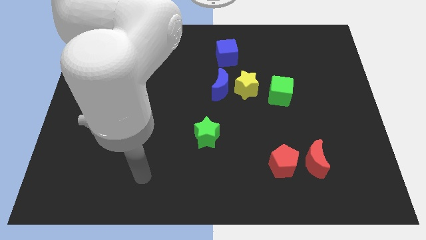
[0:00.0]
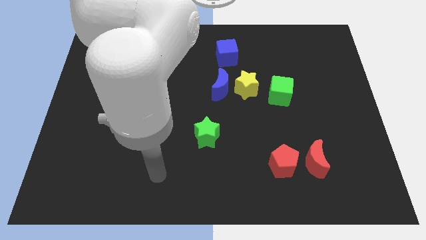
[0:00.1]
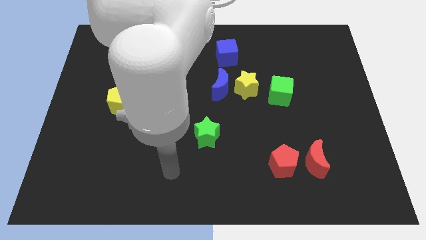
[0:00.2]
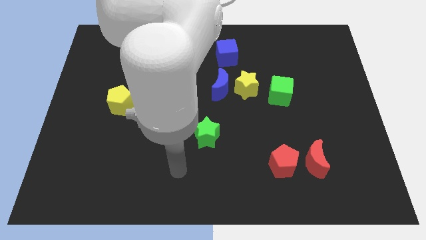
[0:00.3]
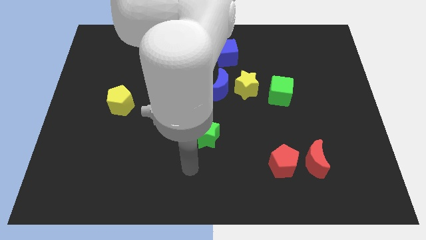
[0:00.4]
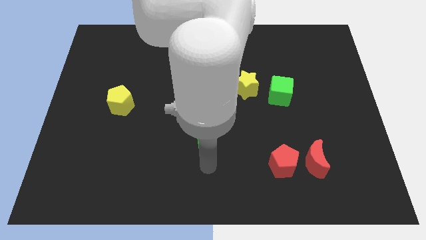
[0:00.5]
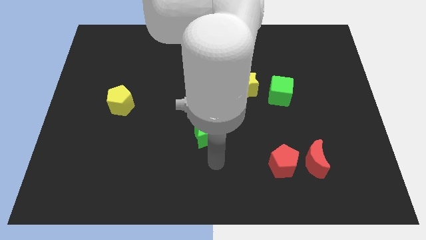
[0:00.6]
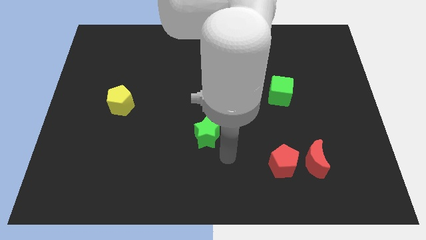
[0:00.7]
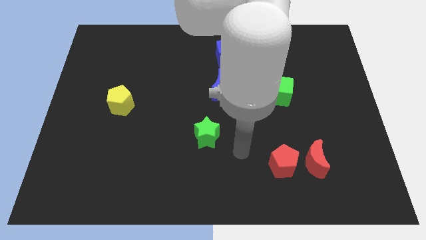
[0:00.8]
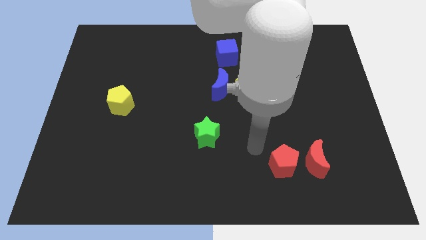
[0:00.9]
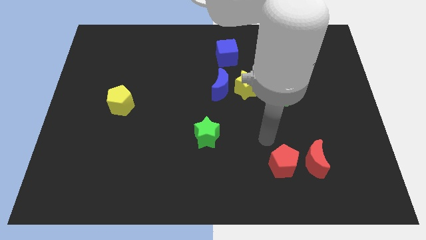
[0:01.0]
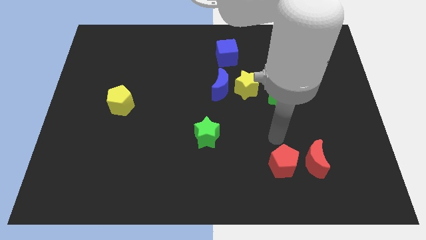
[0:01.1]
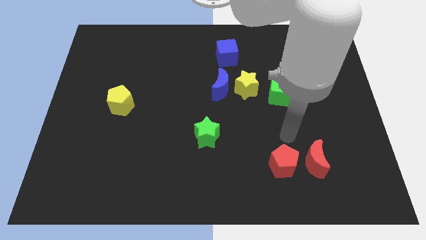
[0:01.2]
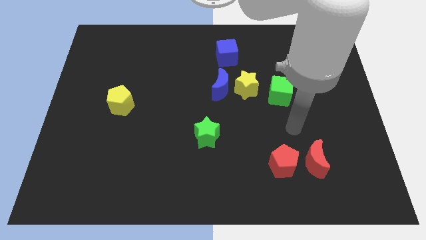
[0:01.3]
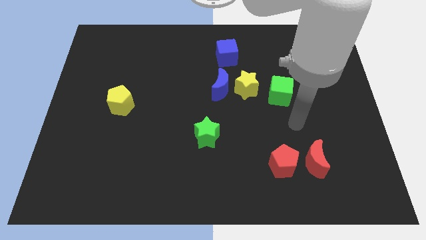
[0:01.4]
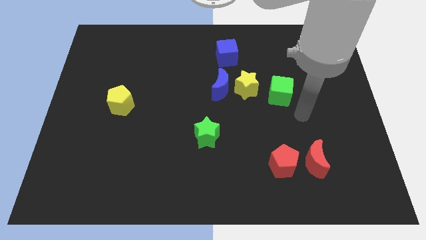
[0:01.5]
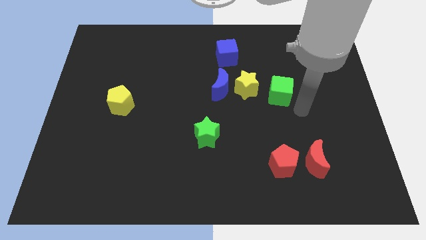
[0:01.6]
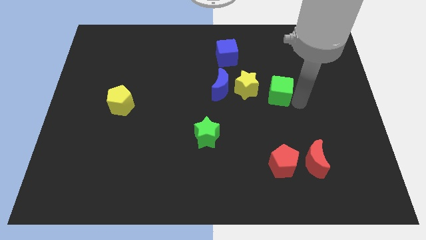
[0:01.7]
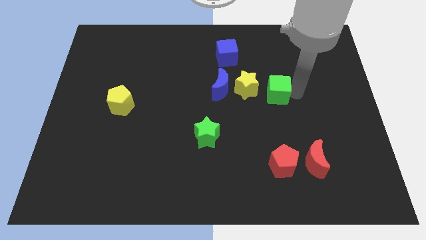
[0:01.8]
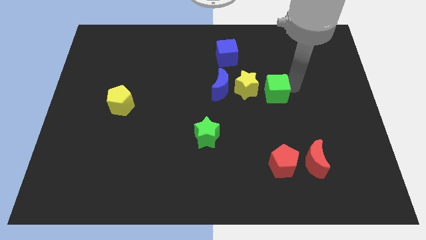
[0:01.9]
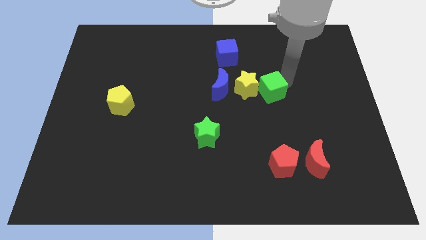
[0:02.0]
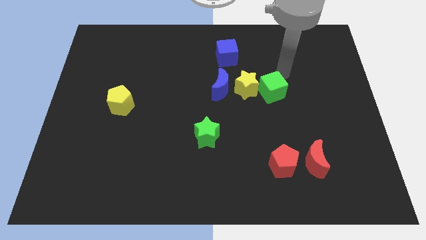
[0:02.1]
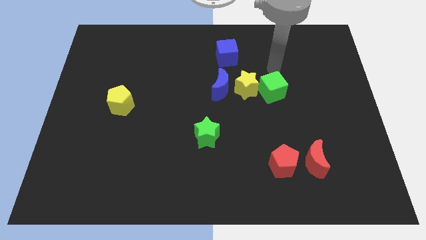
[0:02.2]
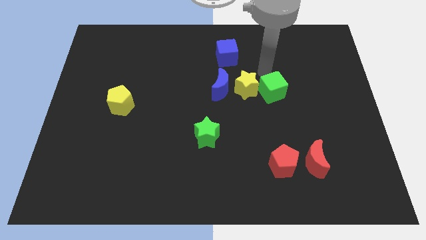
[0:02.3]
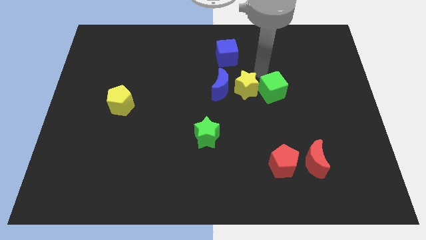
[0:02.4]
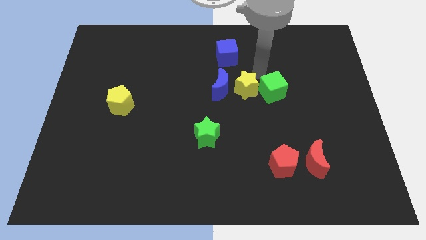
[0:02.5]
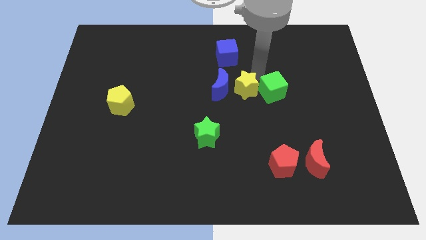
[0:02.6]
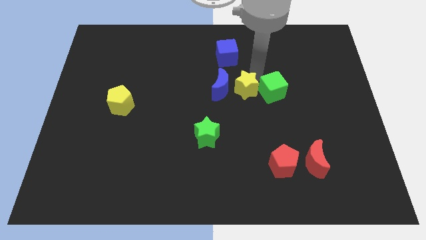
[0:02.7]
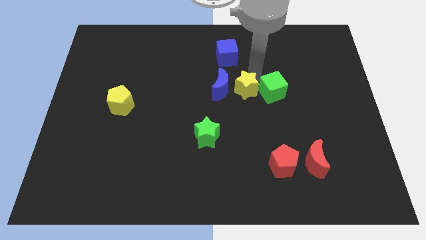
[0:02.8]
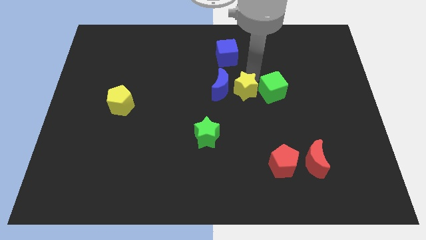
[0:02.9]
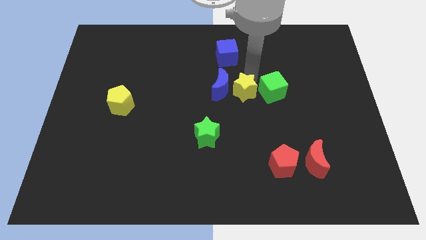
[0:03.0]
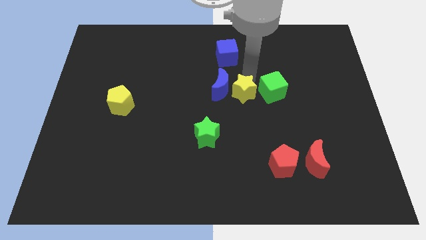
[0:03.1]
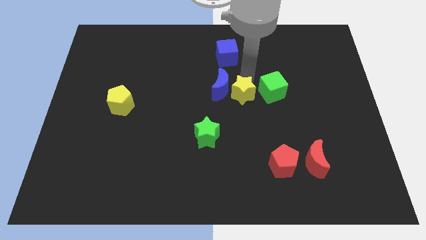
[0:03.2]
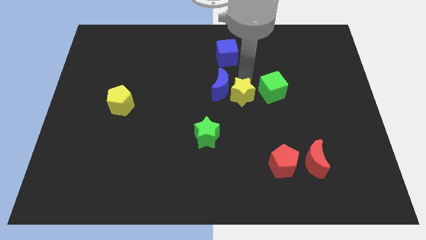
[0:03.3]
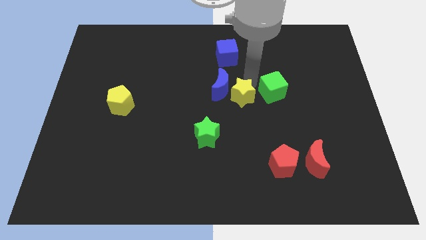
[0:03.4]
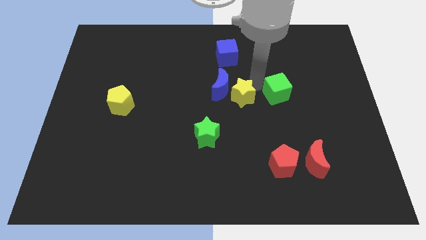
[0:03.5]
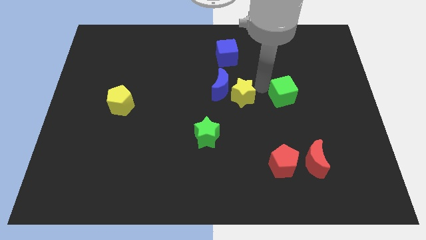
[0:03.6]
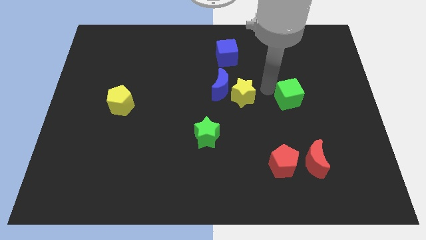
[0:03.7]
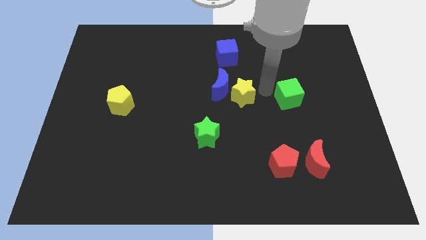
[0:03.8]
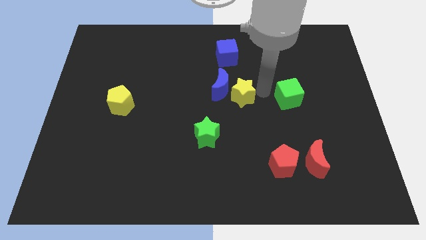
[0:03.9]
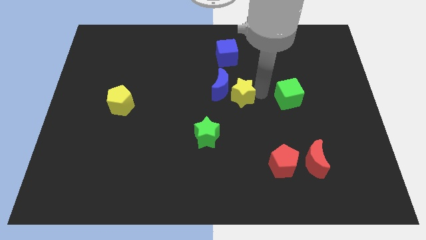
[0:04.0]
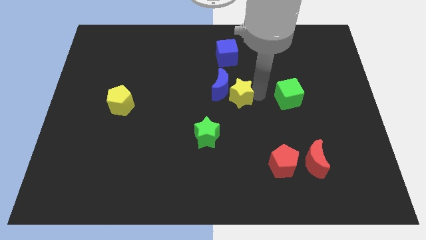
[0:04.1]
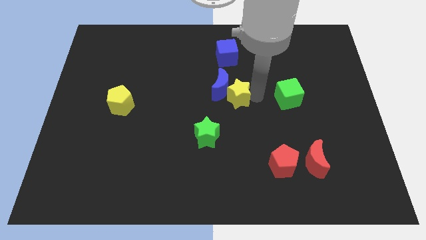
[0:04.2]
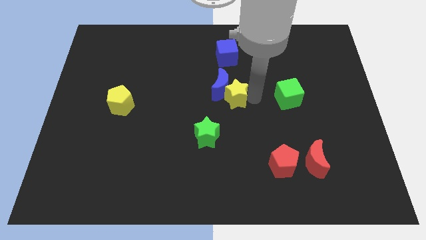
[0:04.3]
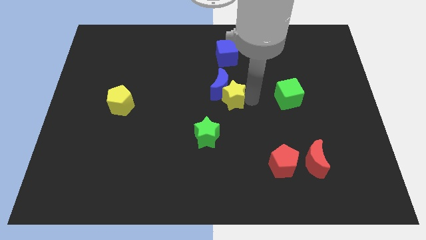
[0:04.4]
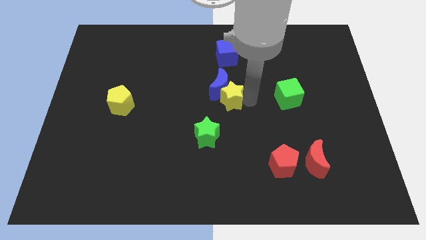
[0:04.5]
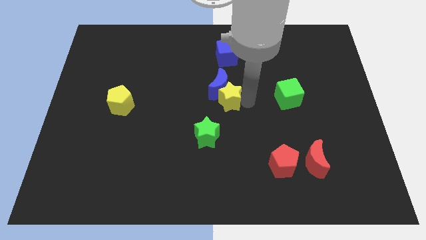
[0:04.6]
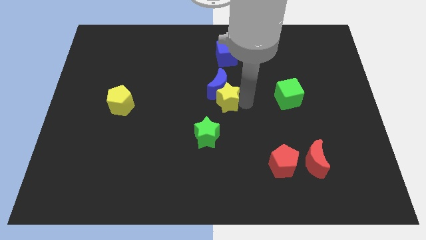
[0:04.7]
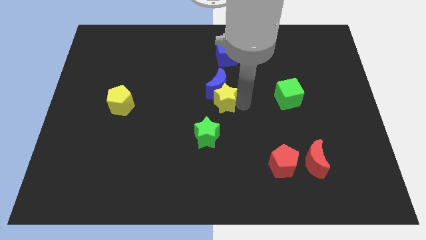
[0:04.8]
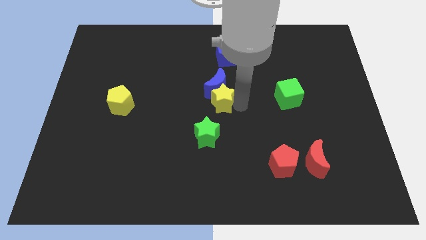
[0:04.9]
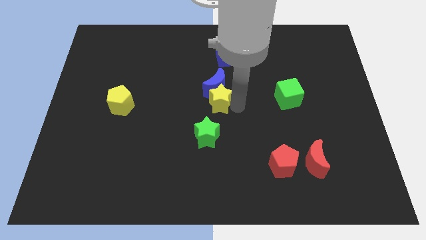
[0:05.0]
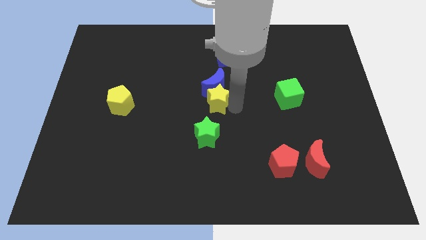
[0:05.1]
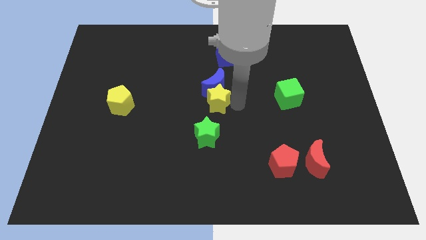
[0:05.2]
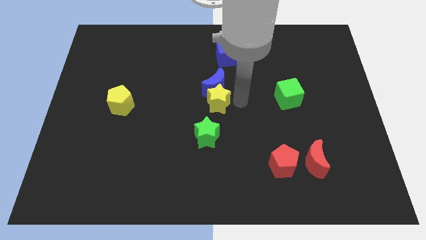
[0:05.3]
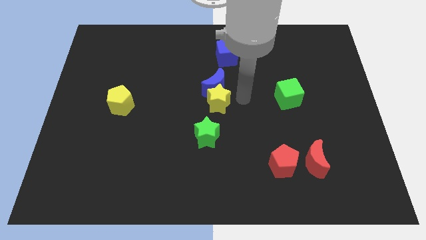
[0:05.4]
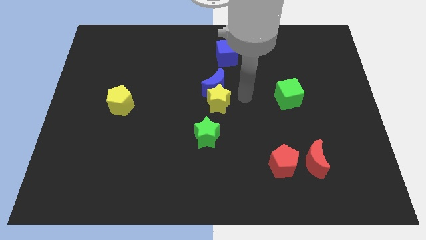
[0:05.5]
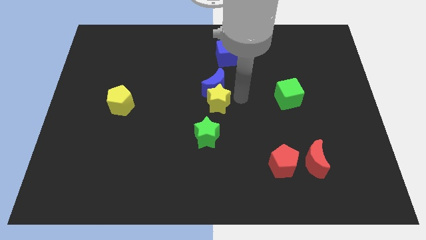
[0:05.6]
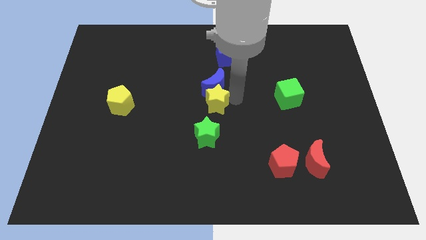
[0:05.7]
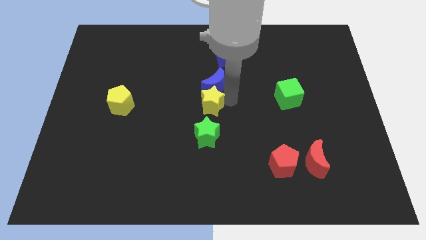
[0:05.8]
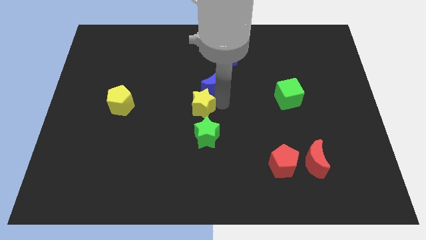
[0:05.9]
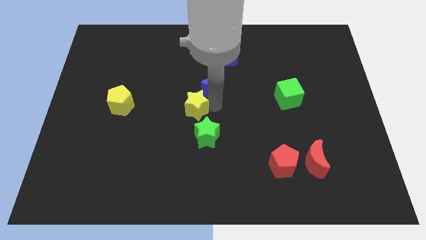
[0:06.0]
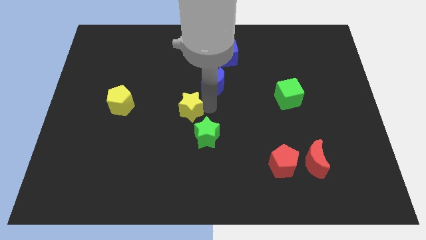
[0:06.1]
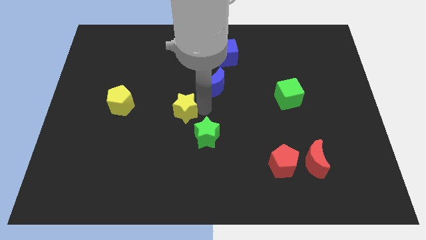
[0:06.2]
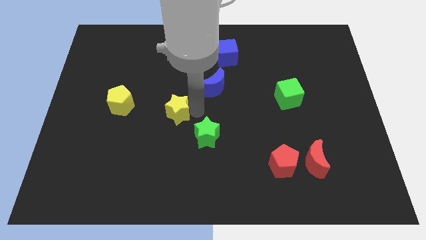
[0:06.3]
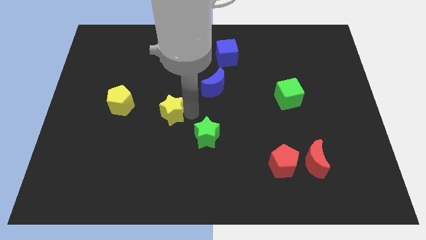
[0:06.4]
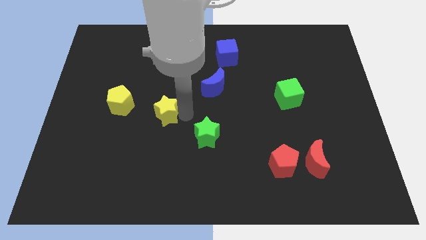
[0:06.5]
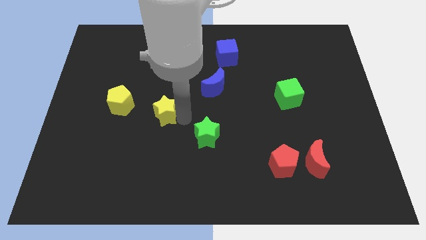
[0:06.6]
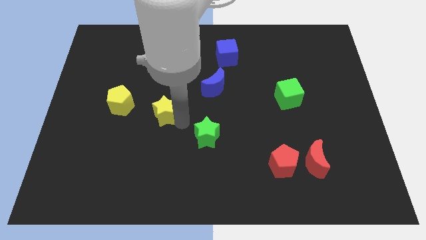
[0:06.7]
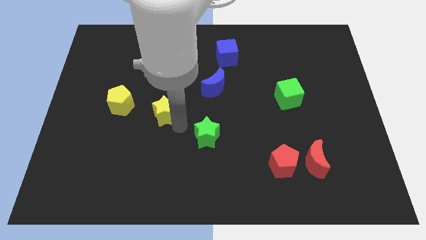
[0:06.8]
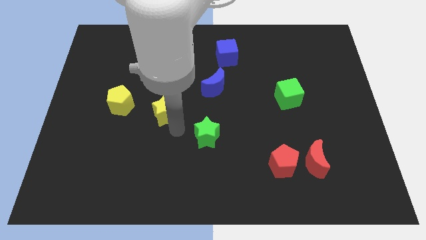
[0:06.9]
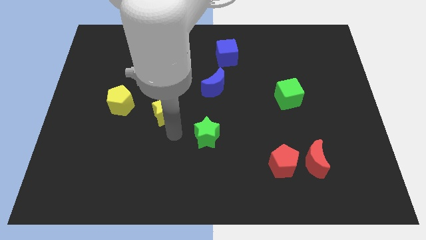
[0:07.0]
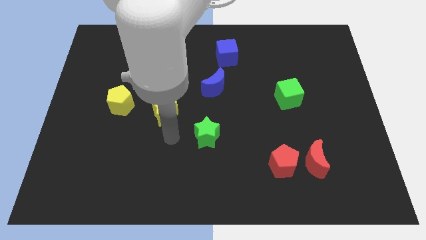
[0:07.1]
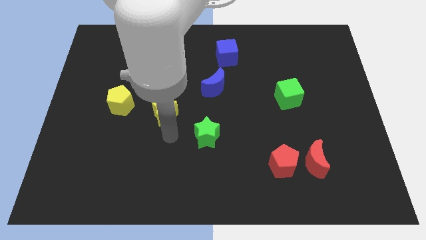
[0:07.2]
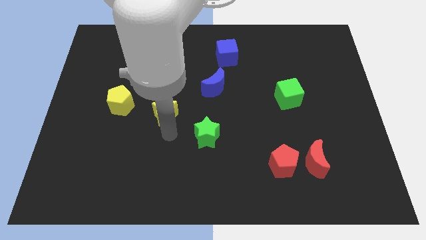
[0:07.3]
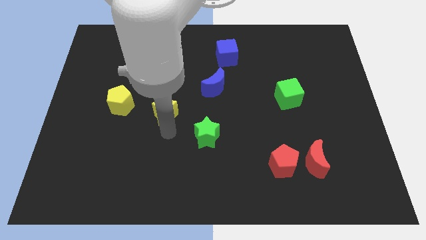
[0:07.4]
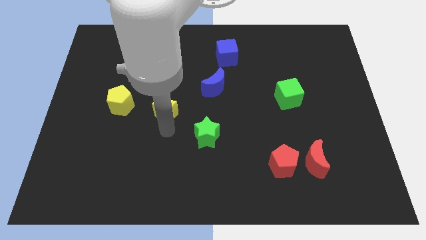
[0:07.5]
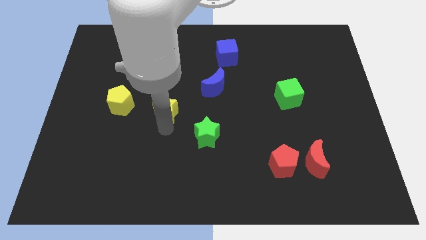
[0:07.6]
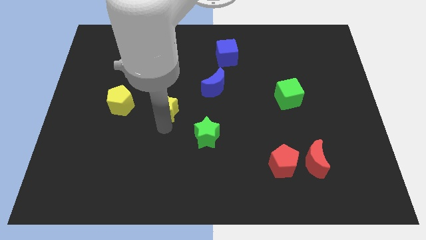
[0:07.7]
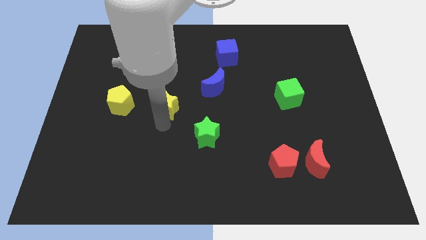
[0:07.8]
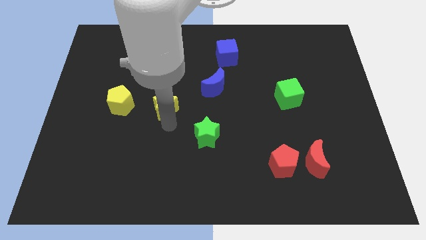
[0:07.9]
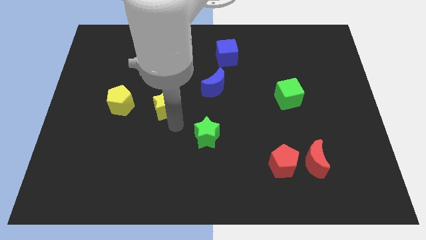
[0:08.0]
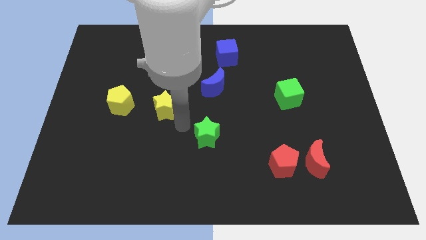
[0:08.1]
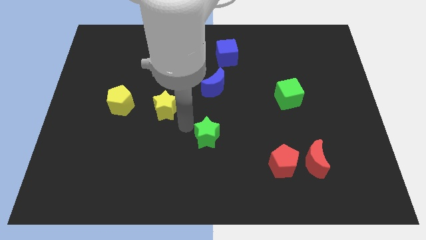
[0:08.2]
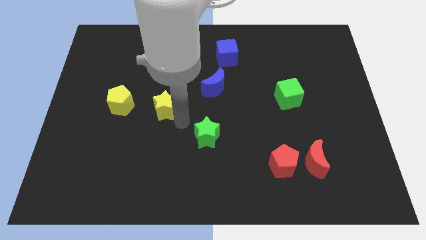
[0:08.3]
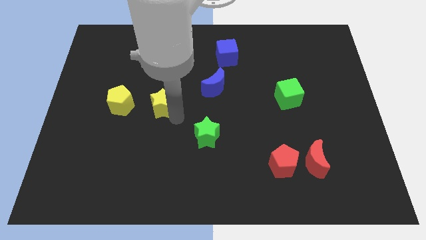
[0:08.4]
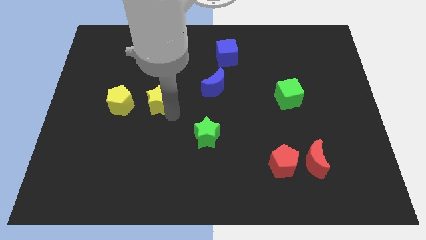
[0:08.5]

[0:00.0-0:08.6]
slide the yellow star left
